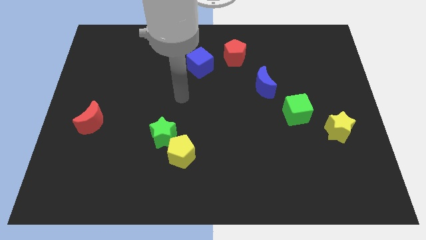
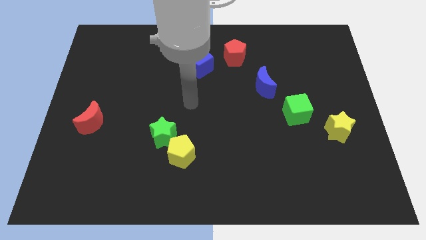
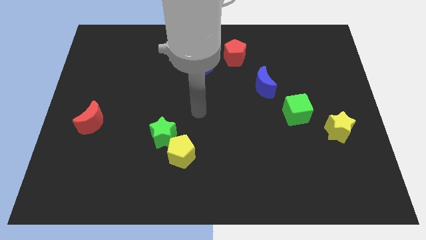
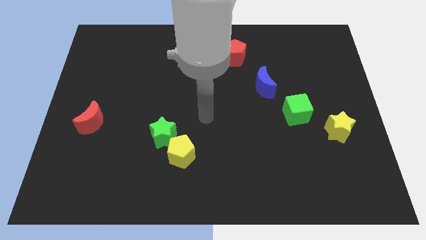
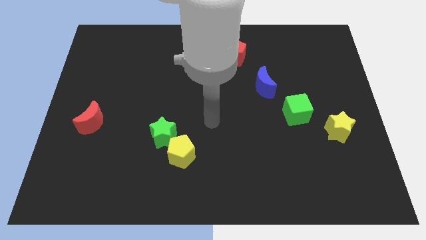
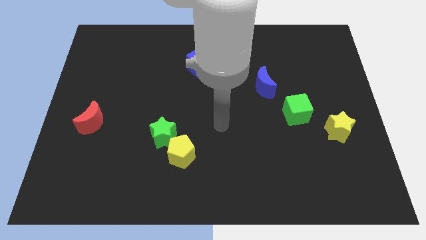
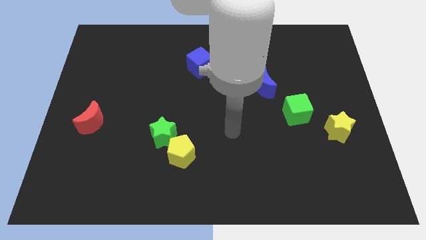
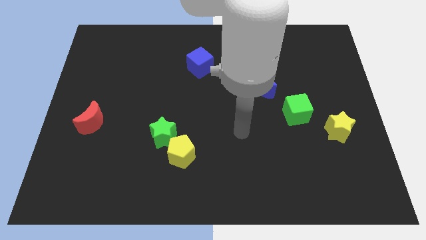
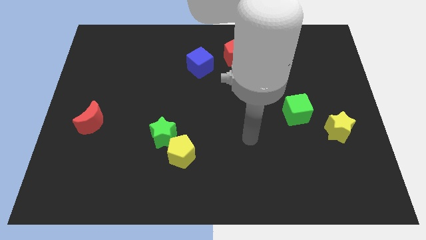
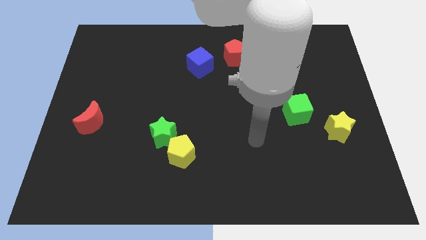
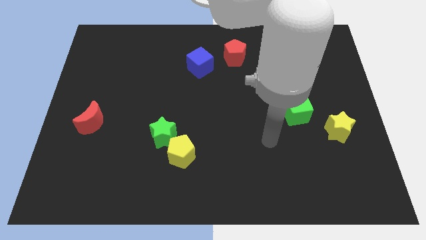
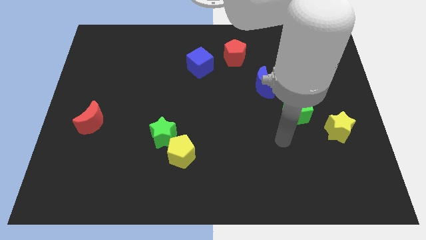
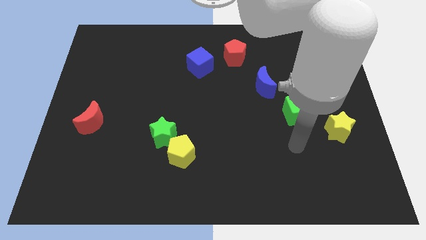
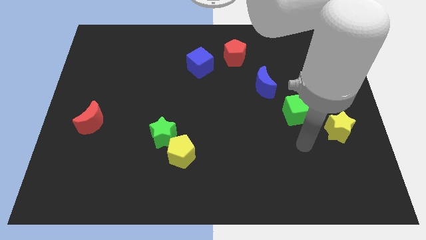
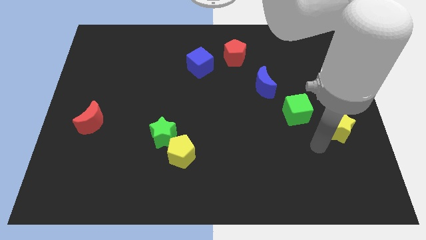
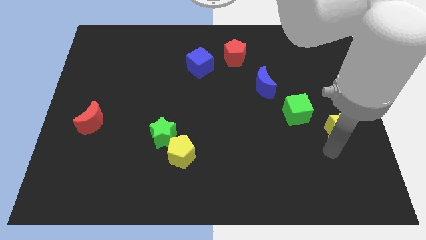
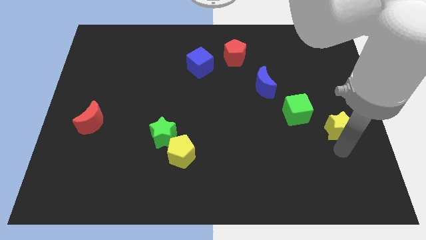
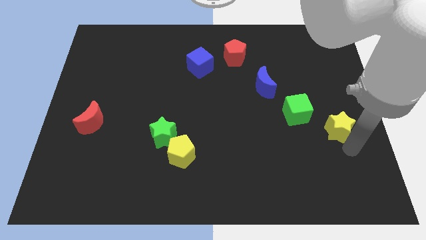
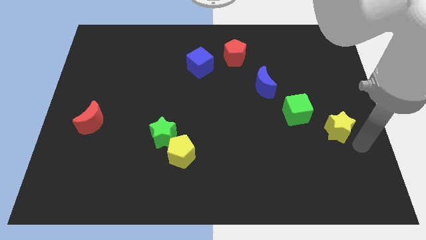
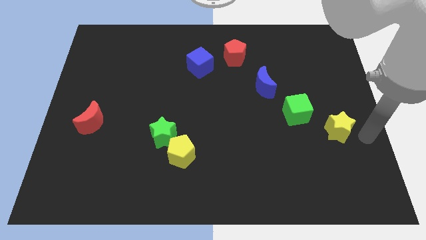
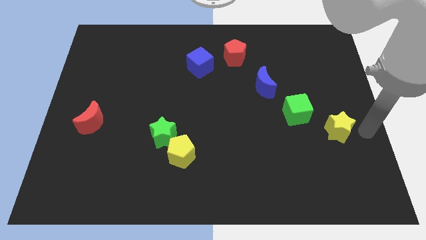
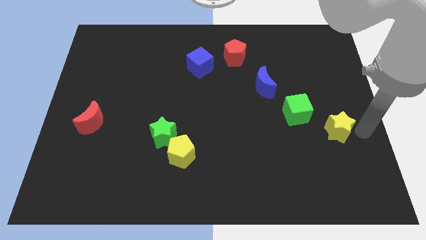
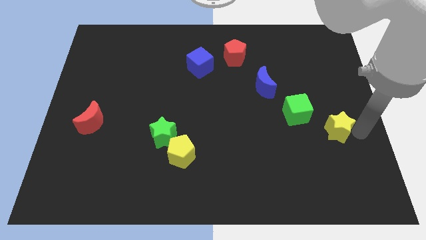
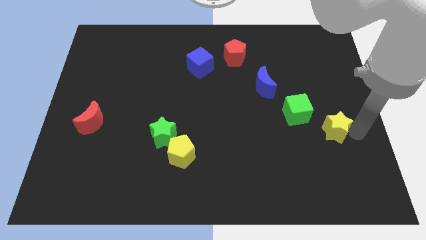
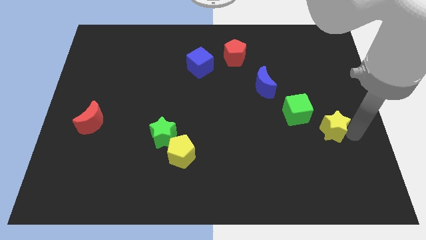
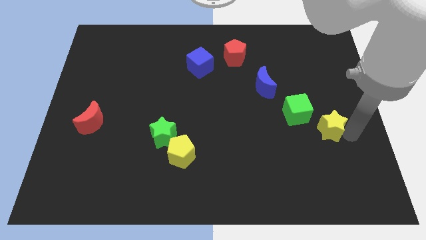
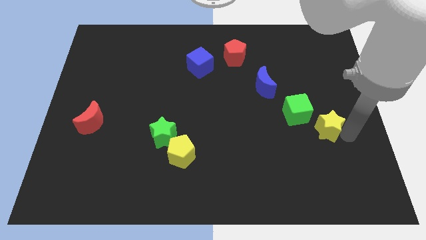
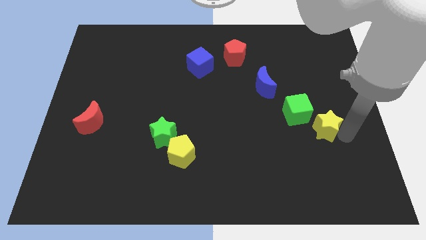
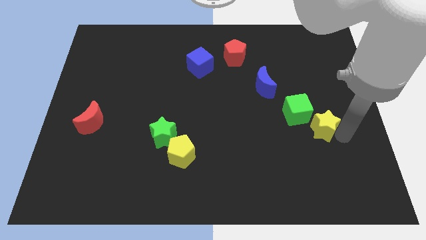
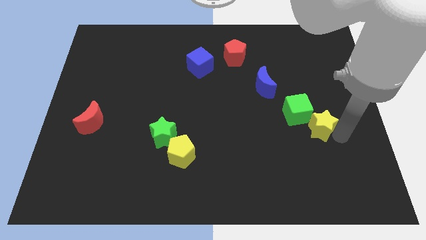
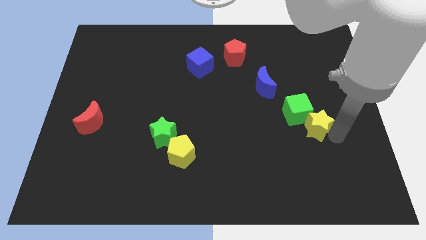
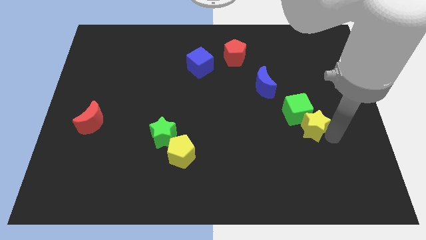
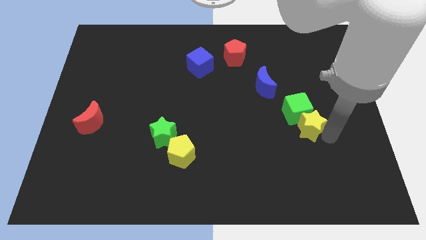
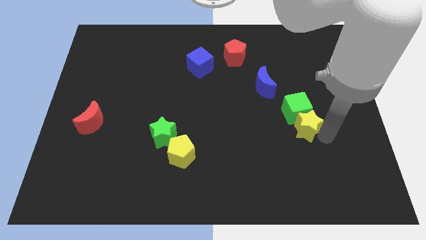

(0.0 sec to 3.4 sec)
push the yellow star a bit to the left

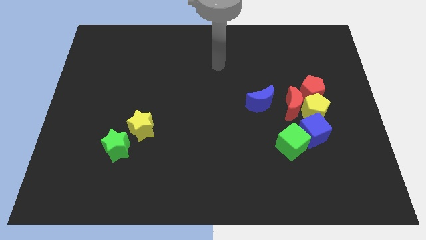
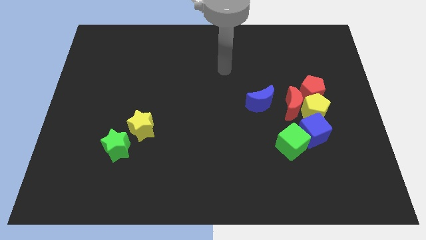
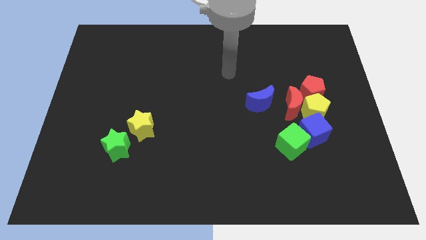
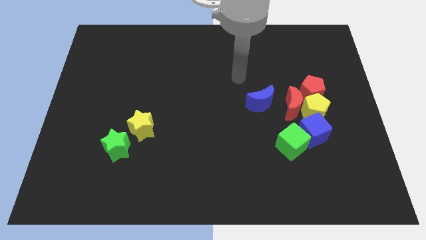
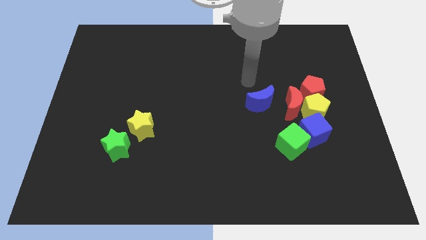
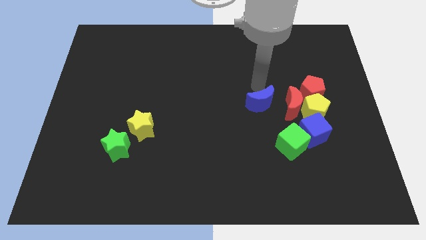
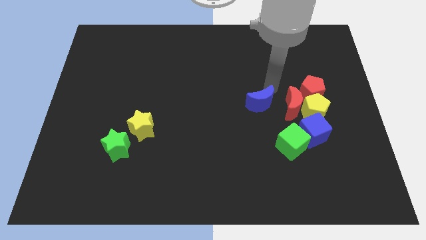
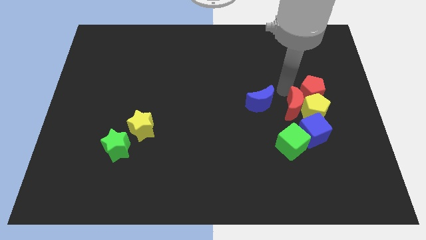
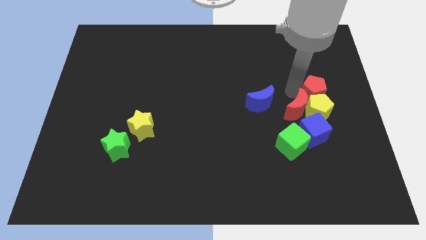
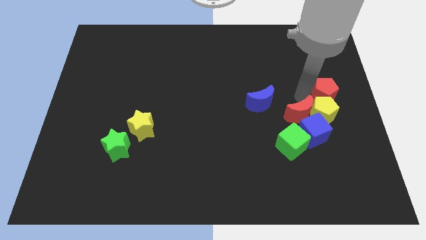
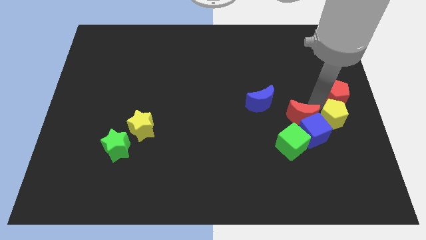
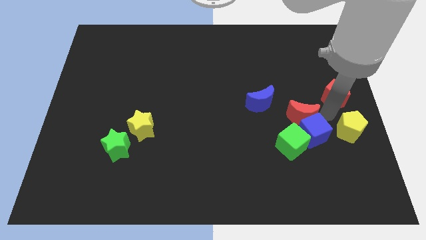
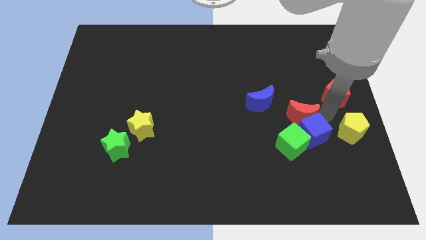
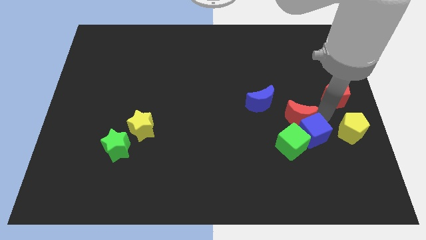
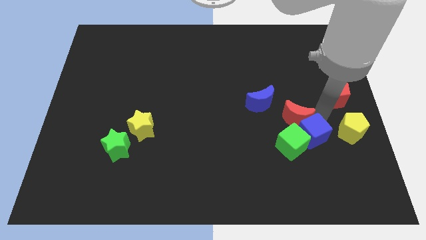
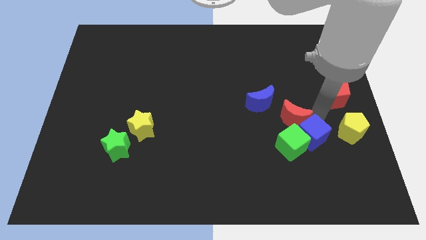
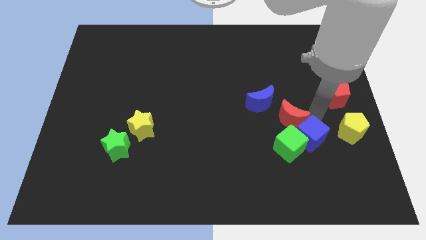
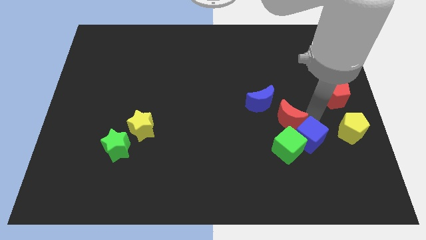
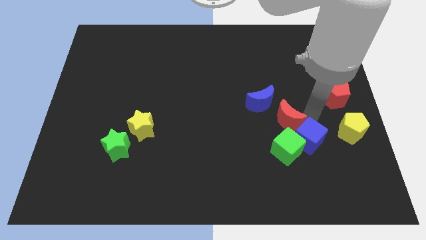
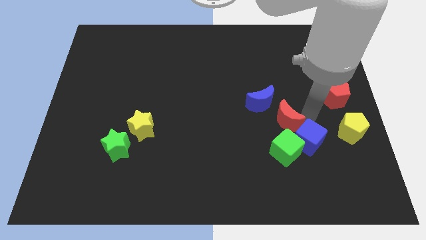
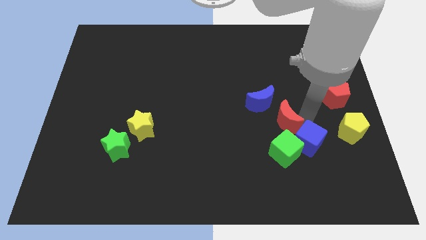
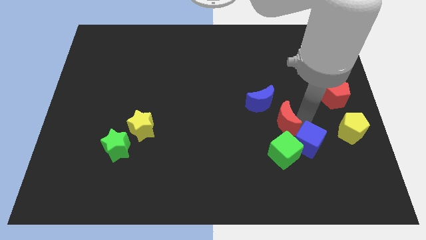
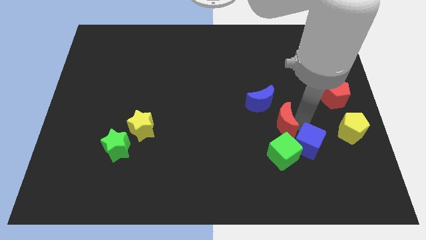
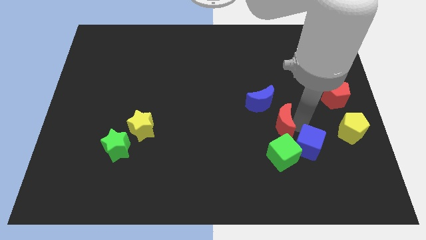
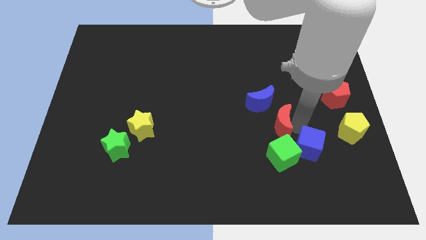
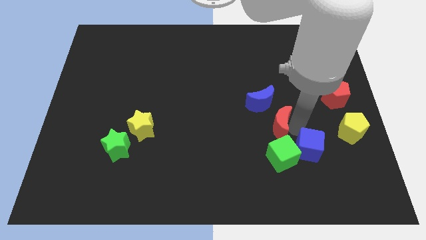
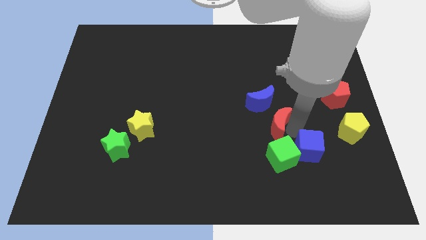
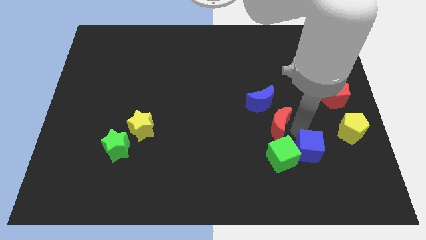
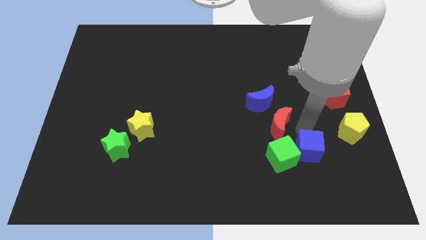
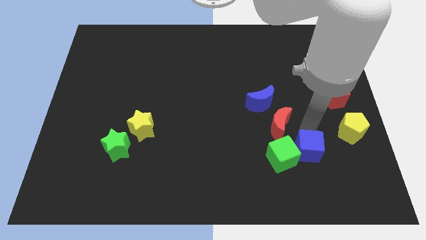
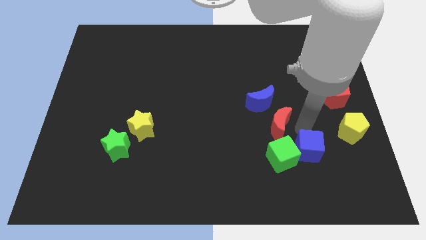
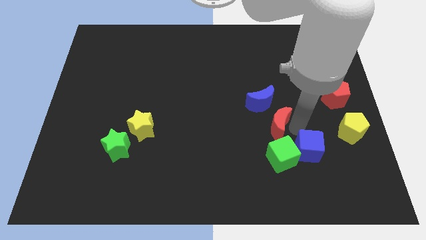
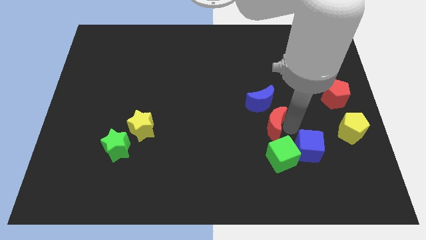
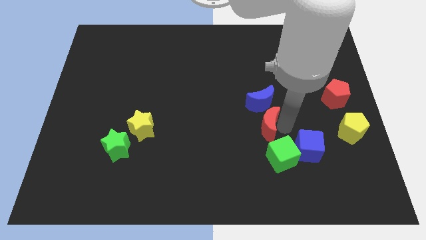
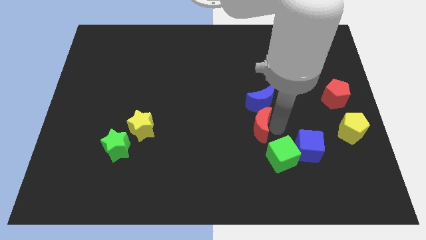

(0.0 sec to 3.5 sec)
move the red moon a little left

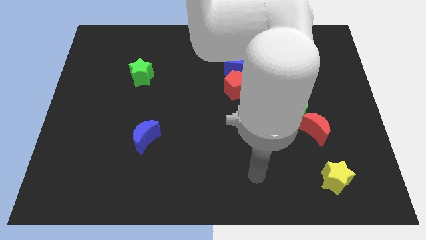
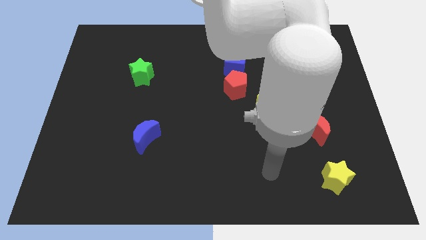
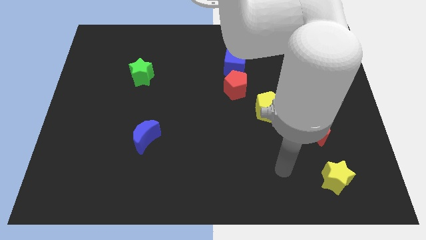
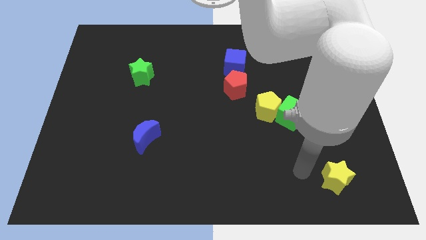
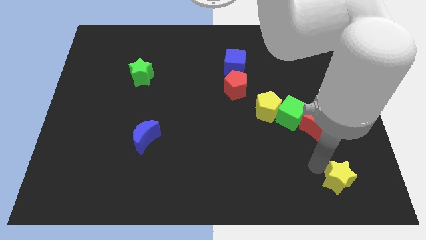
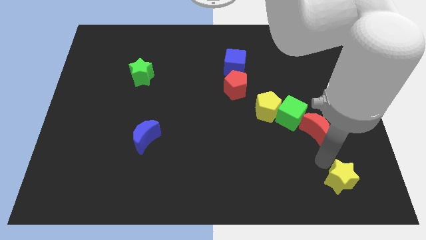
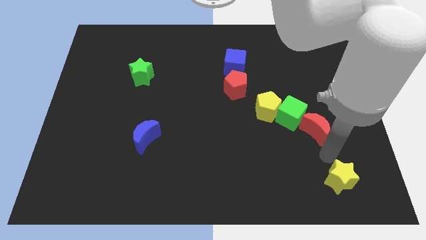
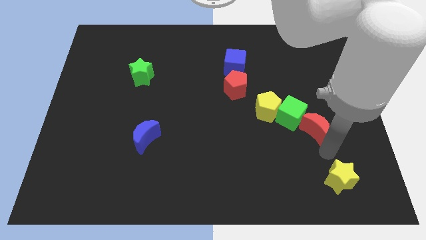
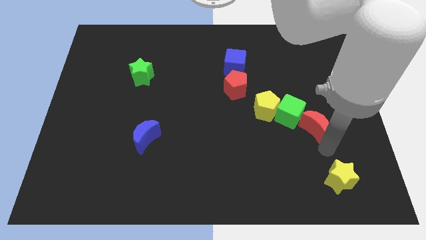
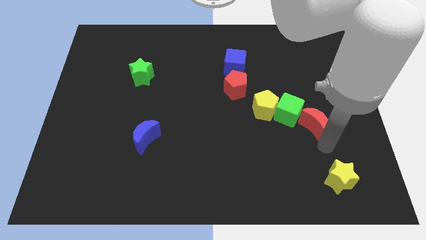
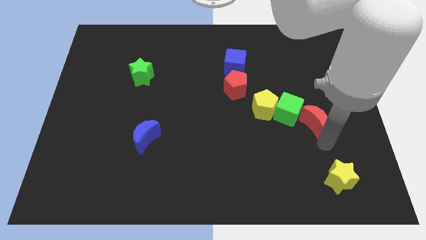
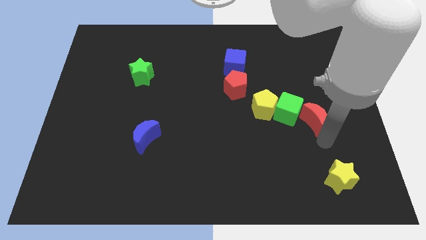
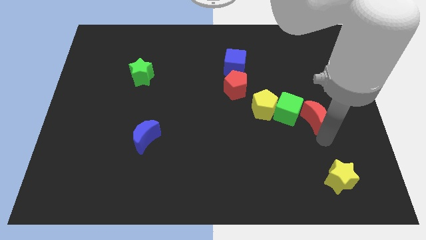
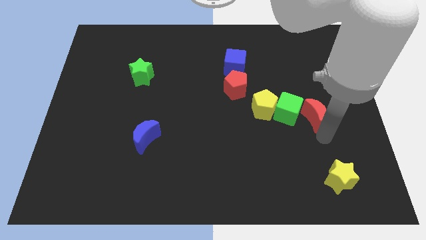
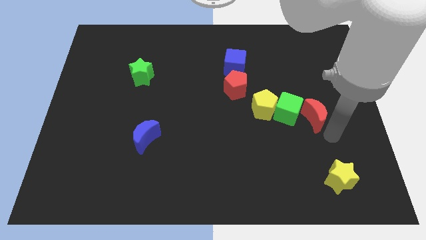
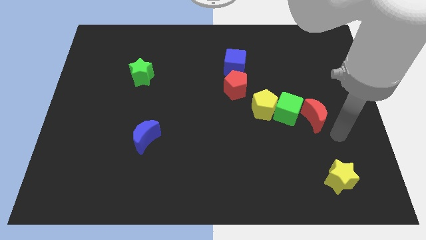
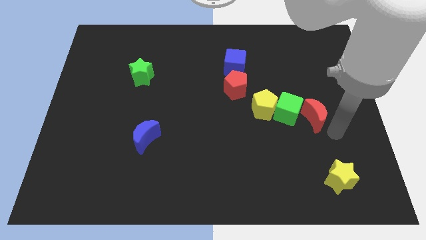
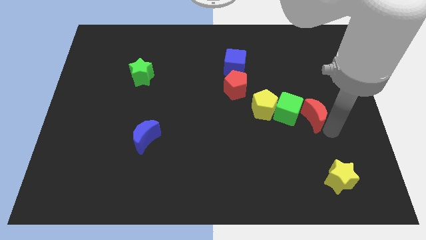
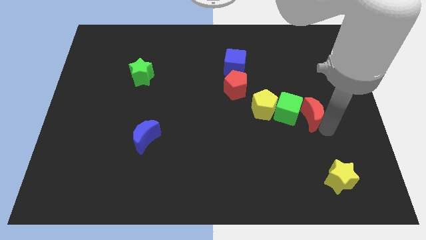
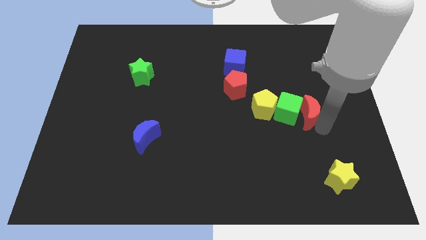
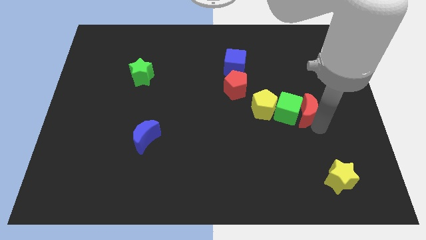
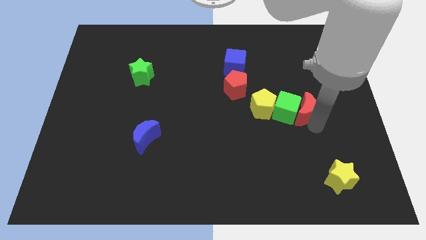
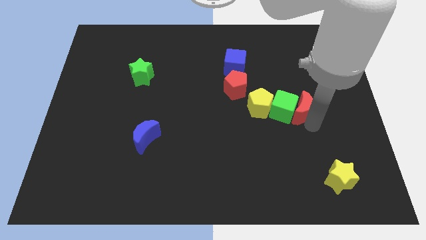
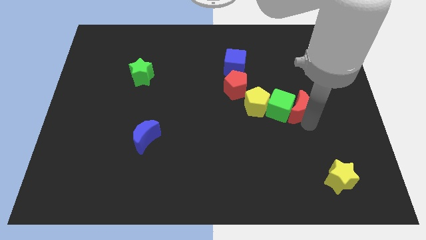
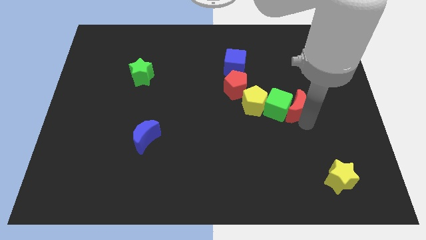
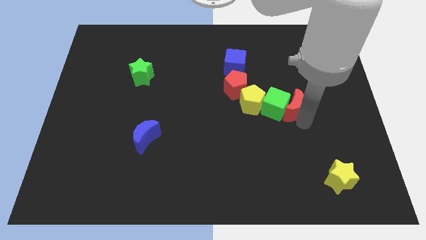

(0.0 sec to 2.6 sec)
move the red moon upwards and to the left diagonally slightly
